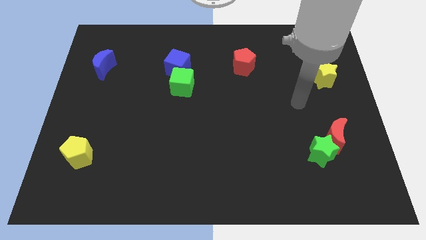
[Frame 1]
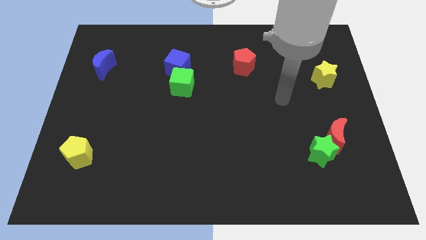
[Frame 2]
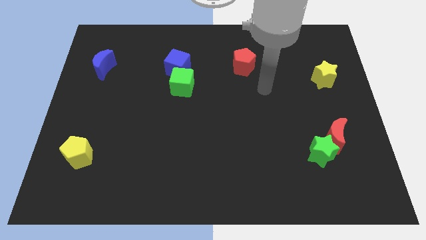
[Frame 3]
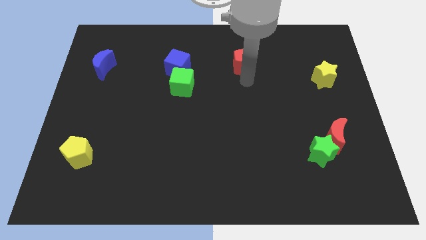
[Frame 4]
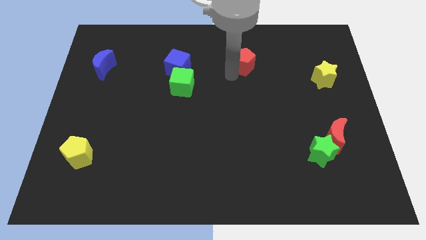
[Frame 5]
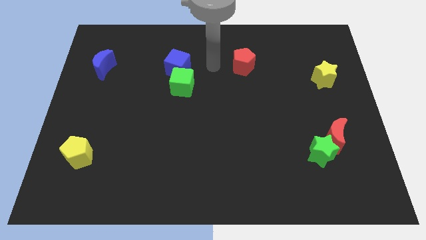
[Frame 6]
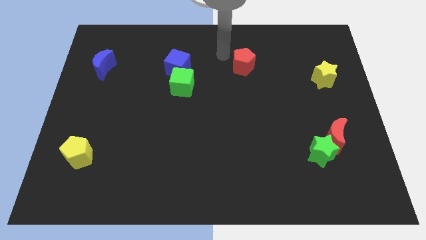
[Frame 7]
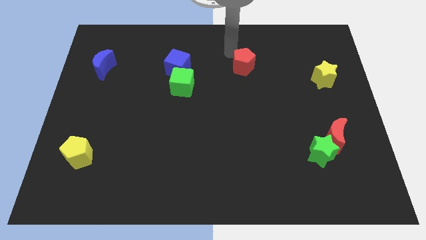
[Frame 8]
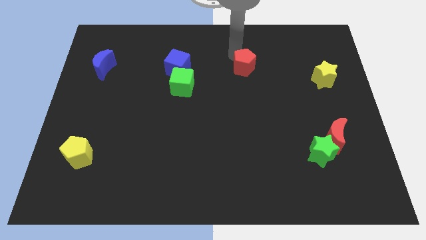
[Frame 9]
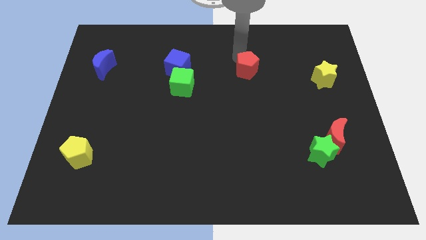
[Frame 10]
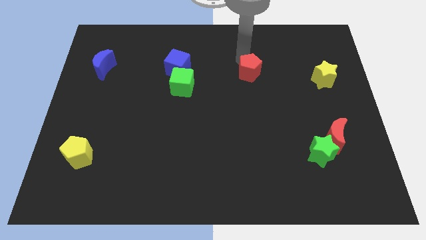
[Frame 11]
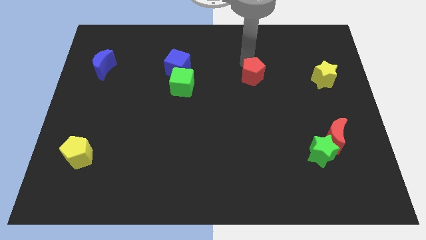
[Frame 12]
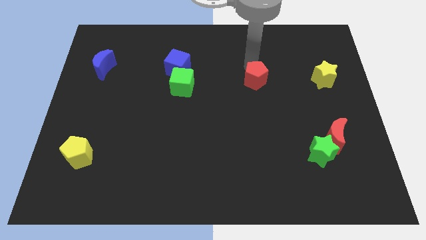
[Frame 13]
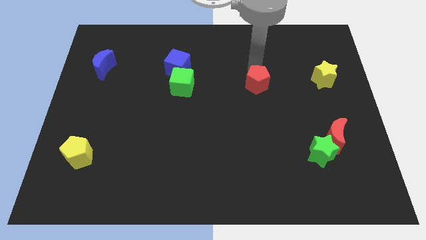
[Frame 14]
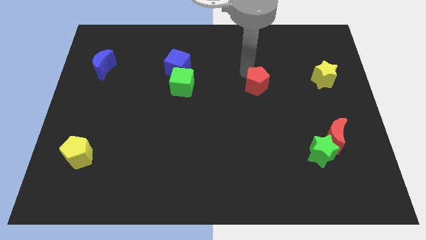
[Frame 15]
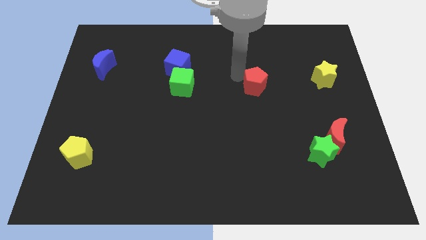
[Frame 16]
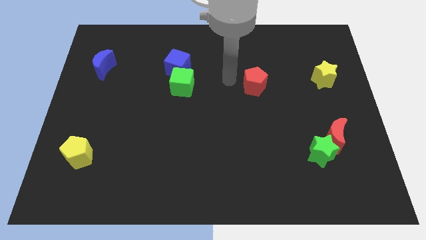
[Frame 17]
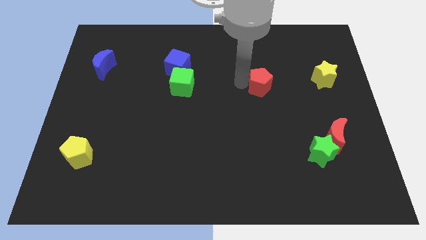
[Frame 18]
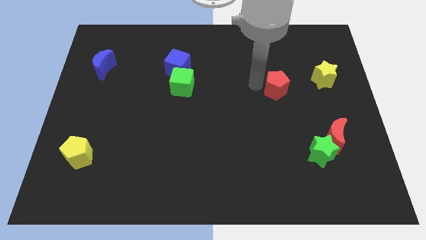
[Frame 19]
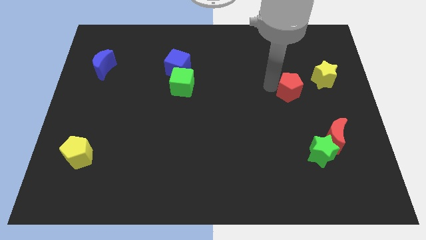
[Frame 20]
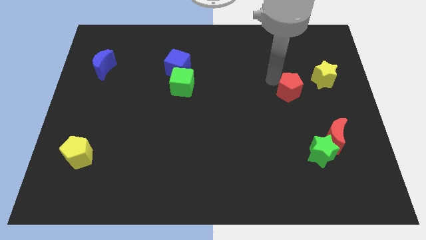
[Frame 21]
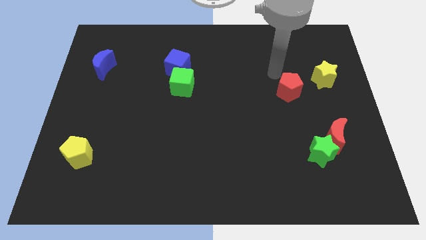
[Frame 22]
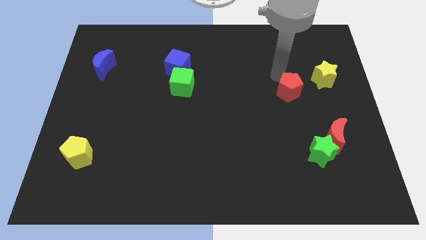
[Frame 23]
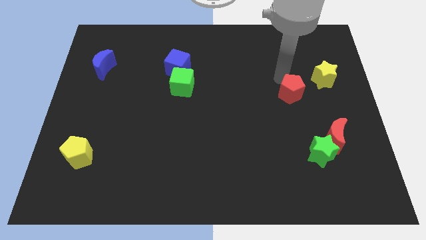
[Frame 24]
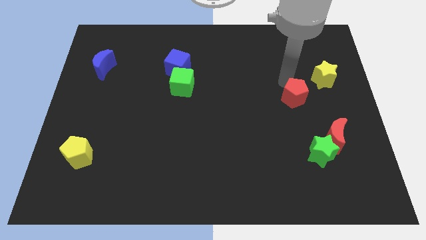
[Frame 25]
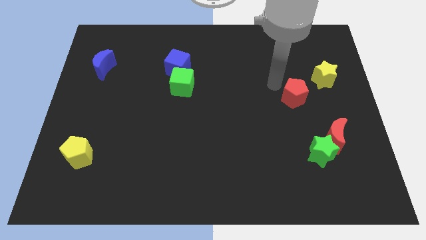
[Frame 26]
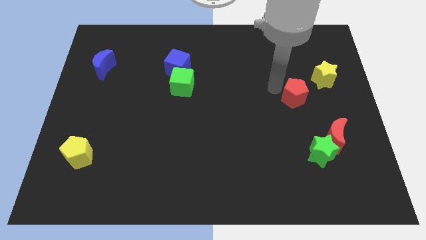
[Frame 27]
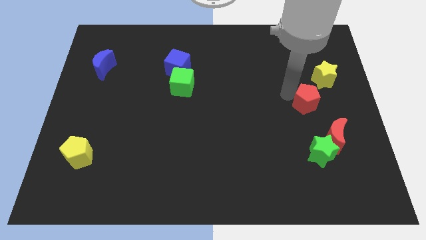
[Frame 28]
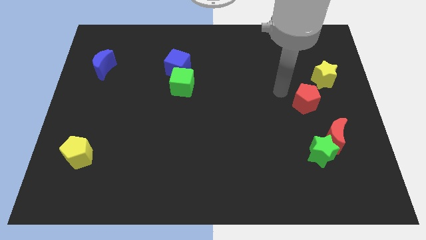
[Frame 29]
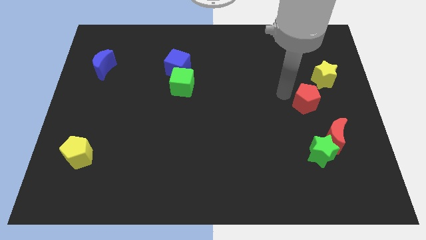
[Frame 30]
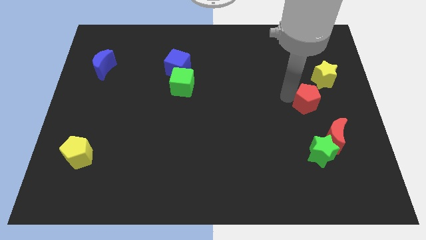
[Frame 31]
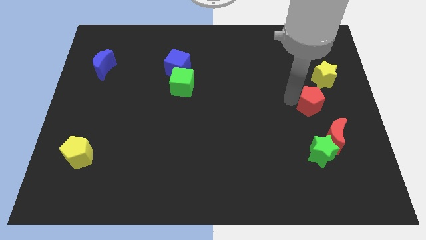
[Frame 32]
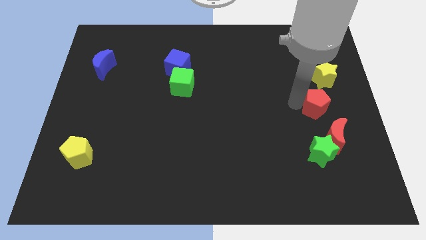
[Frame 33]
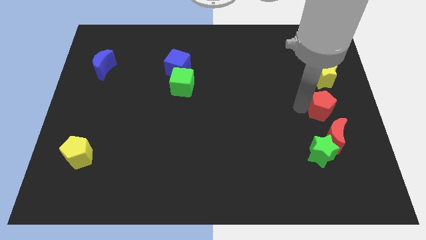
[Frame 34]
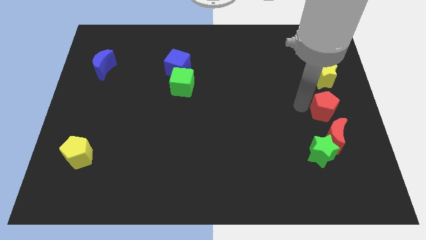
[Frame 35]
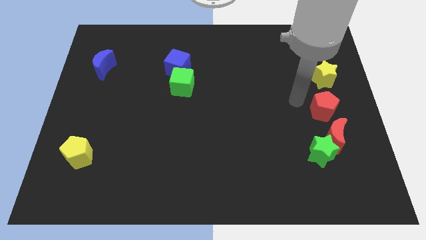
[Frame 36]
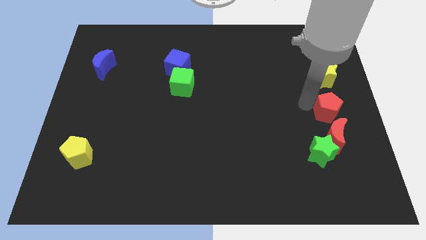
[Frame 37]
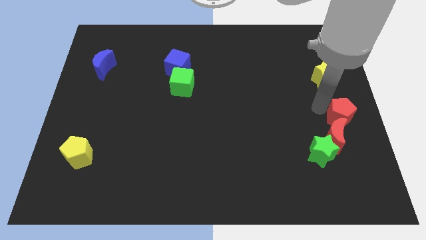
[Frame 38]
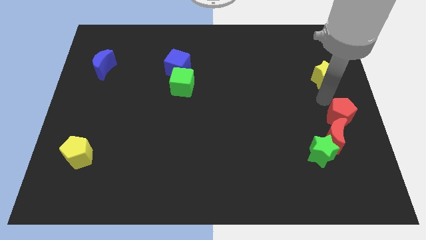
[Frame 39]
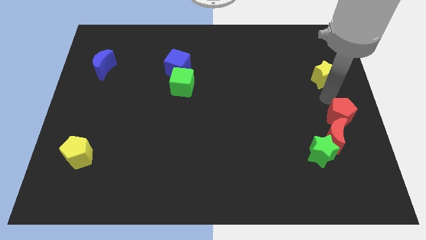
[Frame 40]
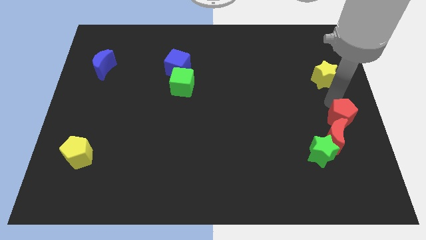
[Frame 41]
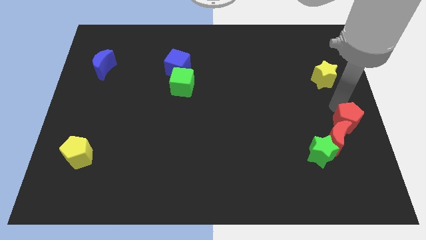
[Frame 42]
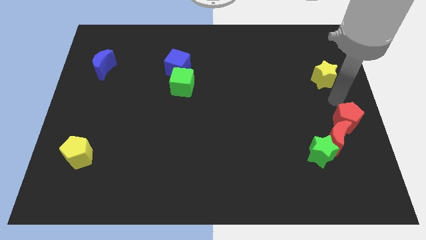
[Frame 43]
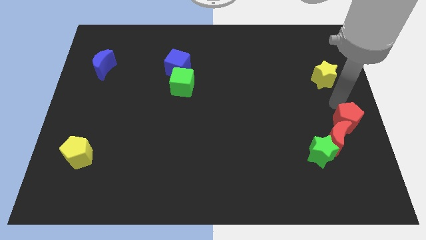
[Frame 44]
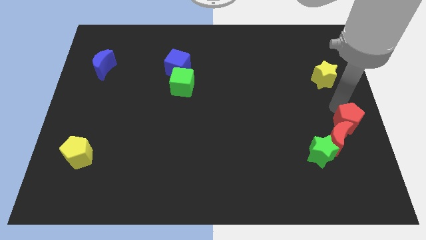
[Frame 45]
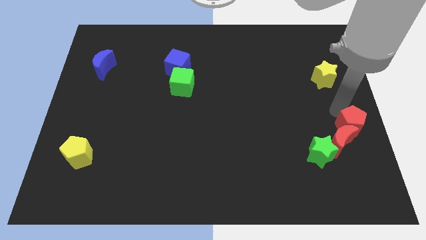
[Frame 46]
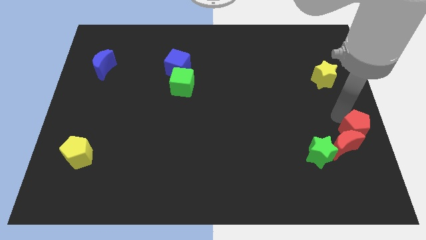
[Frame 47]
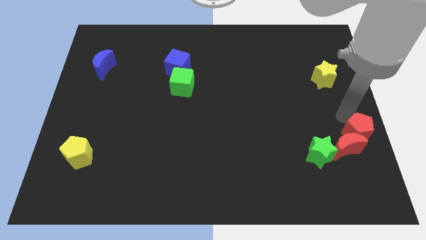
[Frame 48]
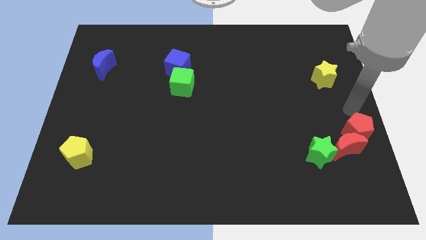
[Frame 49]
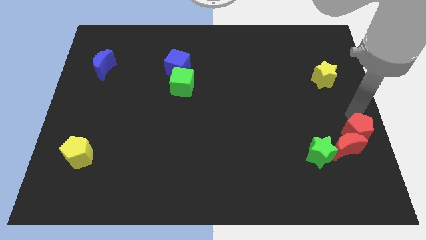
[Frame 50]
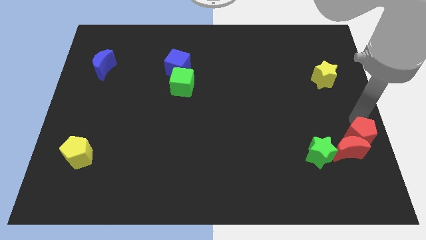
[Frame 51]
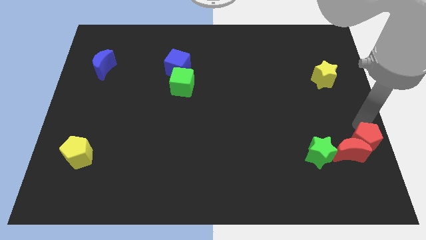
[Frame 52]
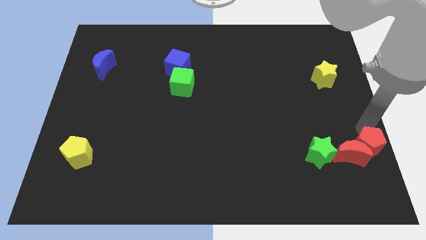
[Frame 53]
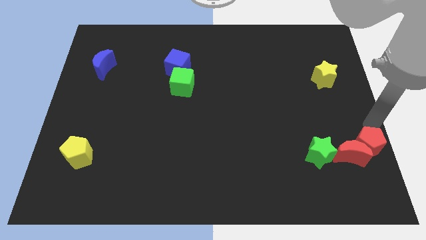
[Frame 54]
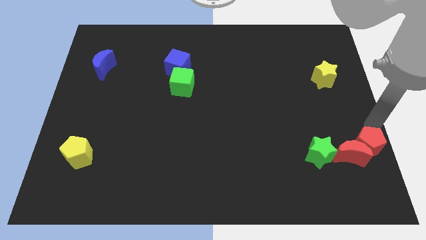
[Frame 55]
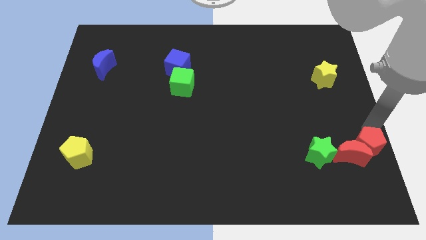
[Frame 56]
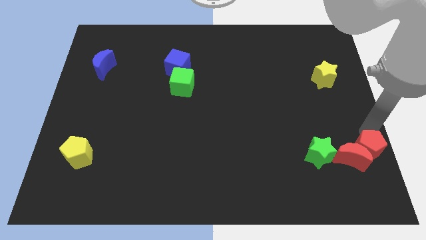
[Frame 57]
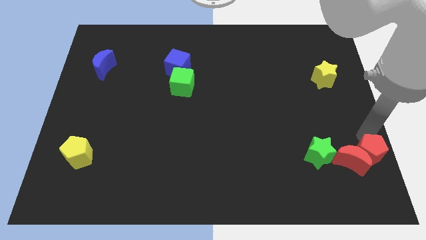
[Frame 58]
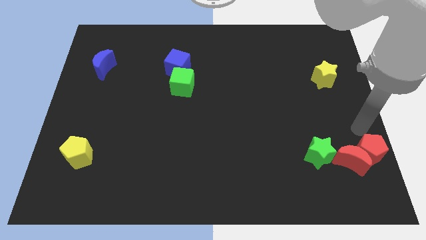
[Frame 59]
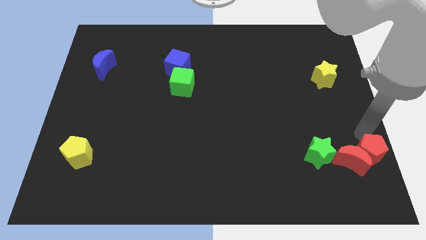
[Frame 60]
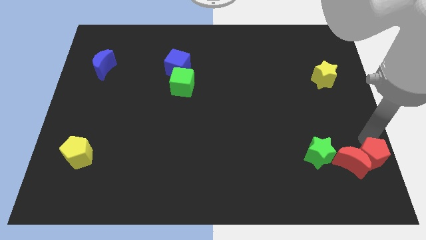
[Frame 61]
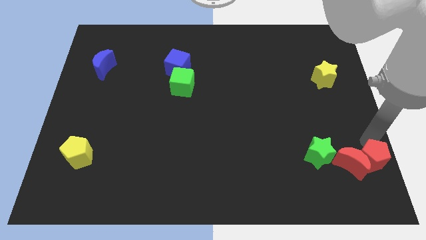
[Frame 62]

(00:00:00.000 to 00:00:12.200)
put the red pentagon to the bottom right of the board
